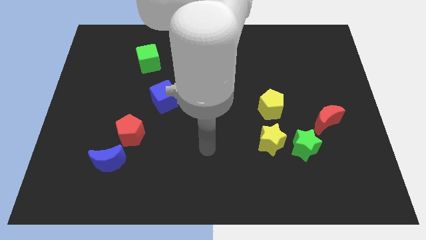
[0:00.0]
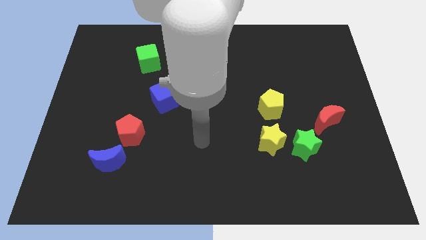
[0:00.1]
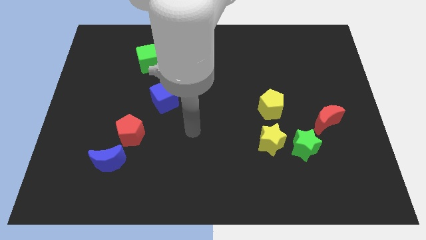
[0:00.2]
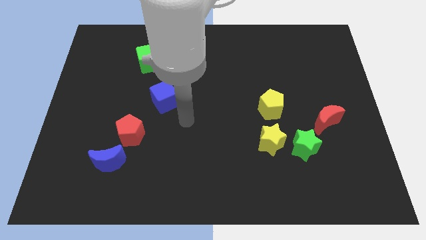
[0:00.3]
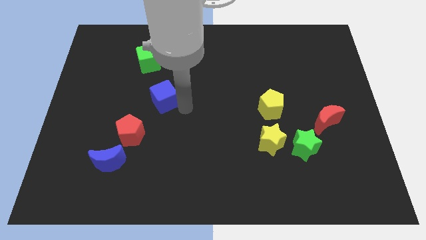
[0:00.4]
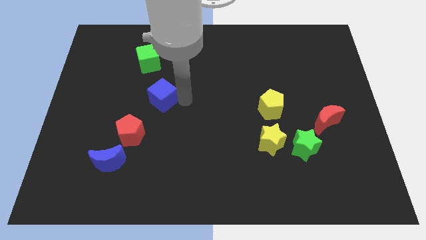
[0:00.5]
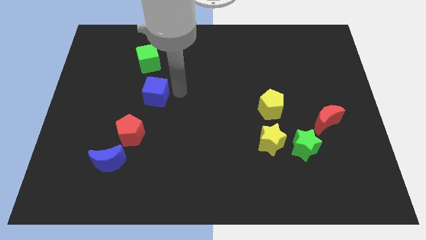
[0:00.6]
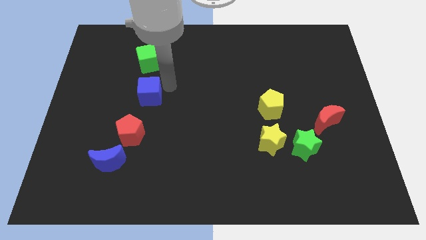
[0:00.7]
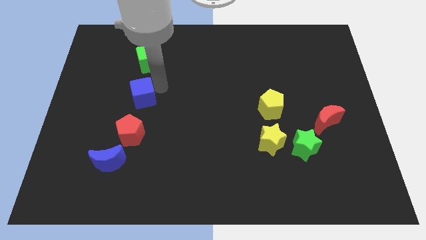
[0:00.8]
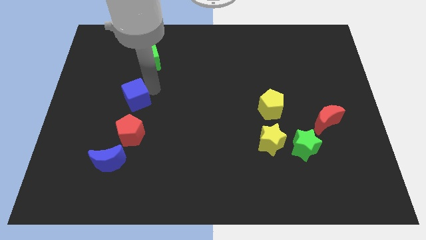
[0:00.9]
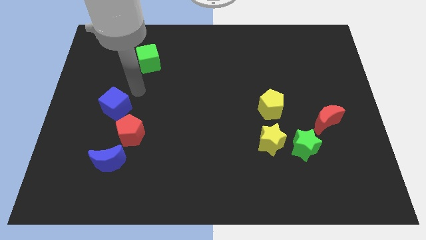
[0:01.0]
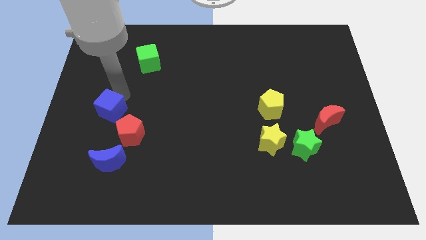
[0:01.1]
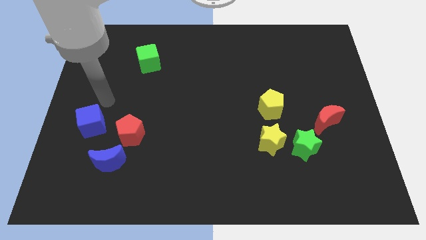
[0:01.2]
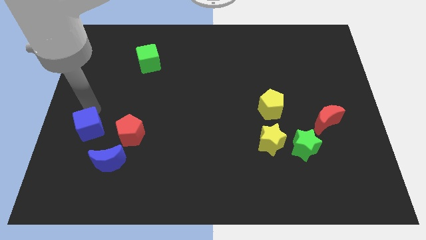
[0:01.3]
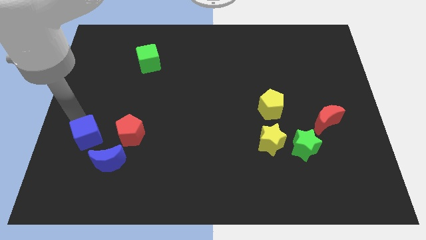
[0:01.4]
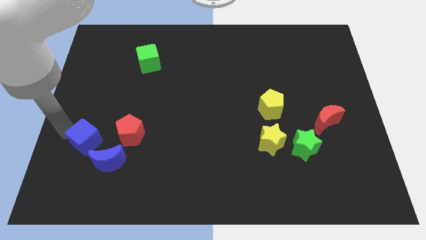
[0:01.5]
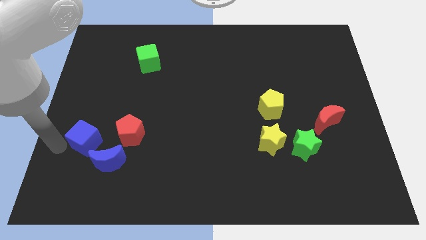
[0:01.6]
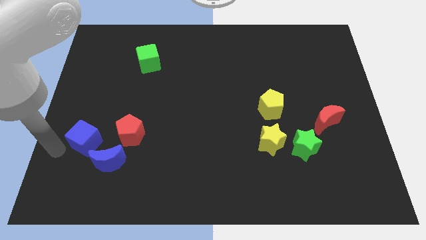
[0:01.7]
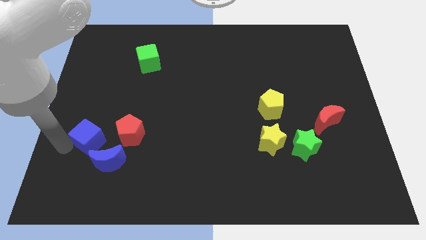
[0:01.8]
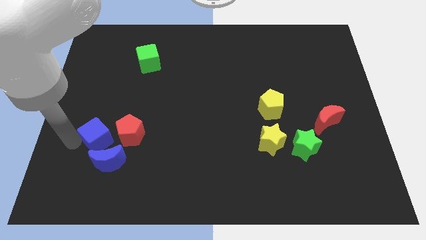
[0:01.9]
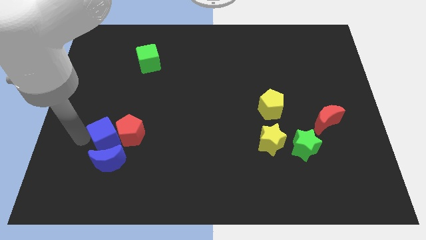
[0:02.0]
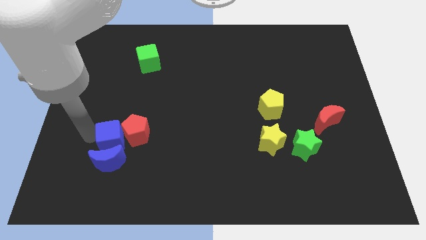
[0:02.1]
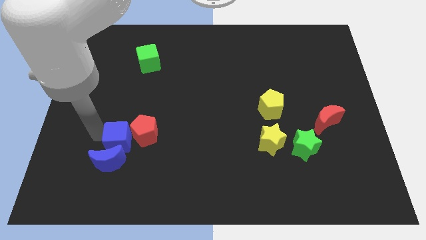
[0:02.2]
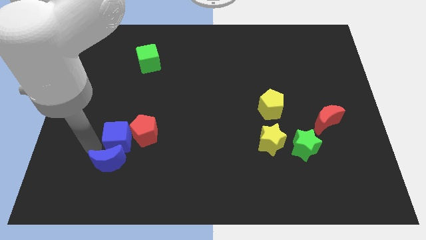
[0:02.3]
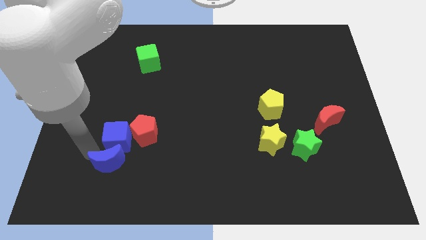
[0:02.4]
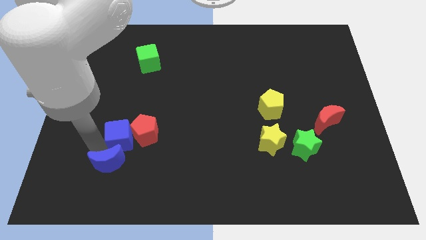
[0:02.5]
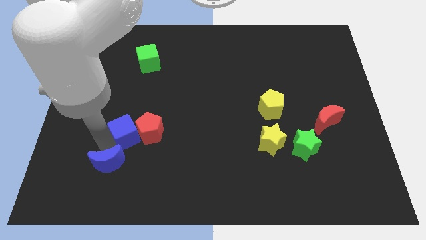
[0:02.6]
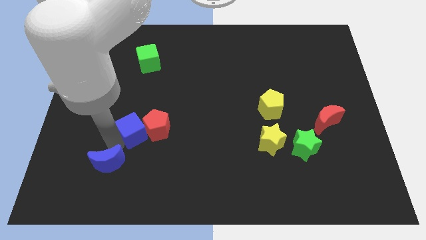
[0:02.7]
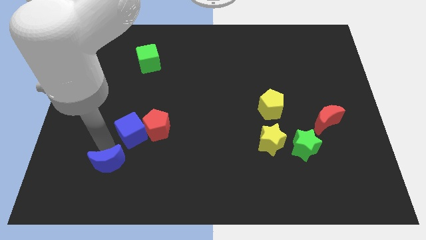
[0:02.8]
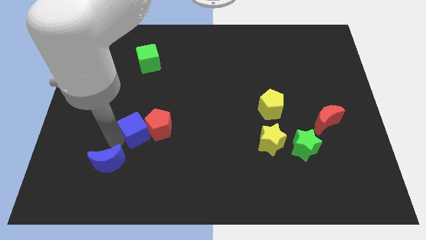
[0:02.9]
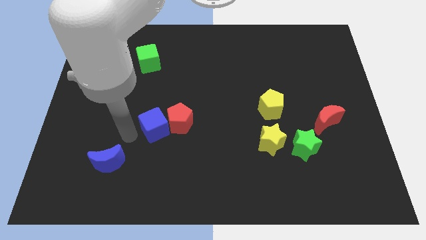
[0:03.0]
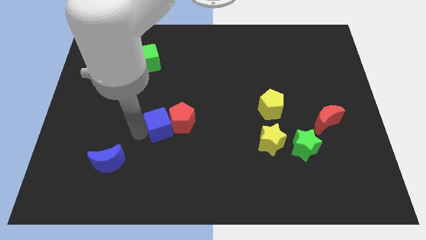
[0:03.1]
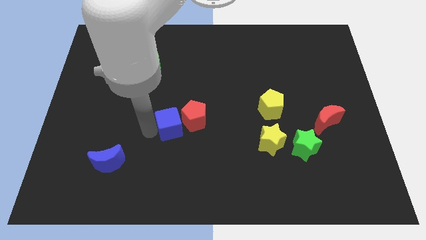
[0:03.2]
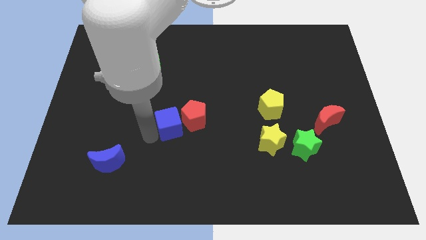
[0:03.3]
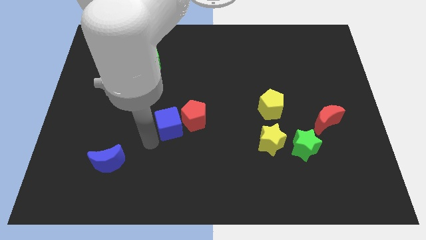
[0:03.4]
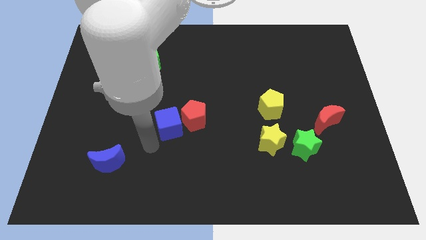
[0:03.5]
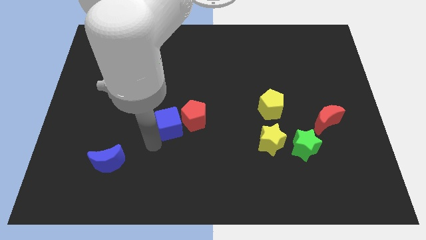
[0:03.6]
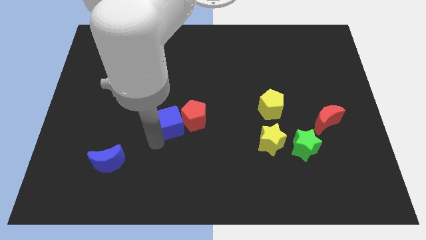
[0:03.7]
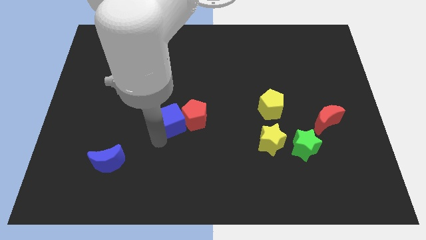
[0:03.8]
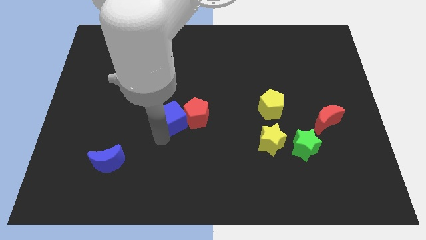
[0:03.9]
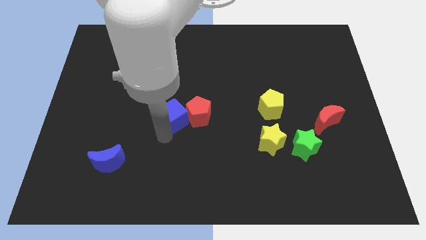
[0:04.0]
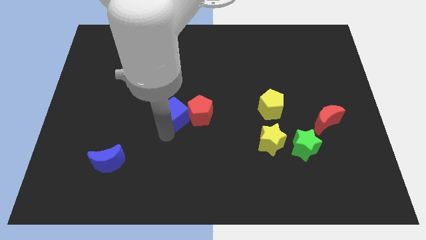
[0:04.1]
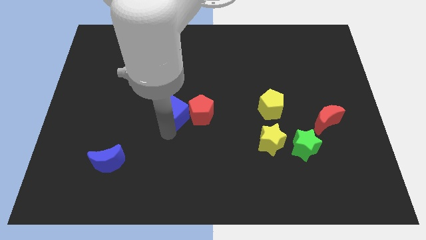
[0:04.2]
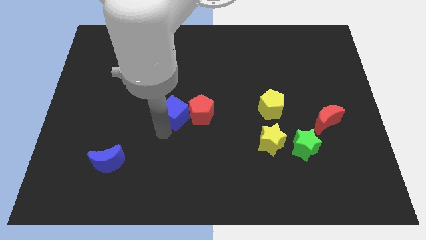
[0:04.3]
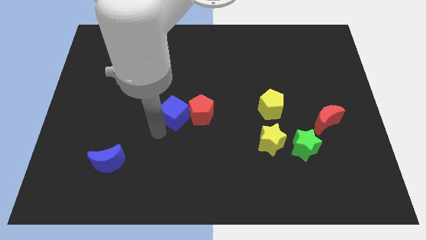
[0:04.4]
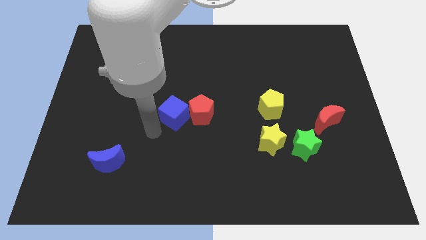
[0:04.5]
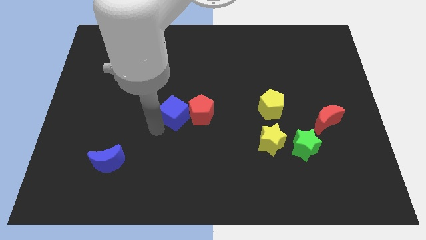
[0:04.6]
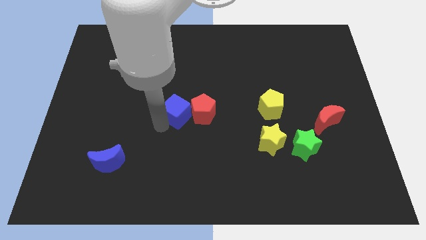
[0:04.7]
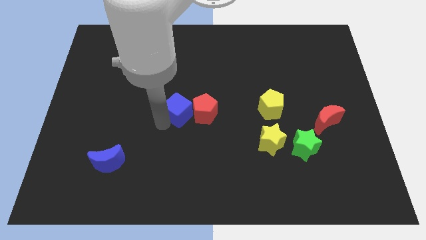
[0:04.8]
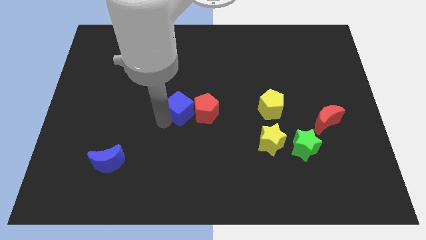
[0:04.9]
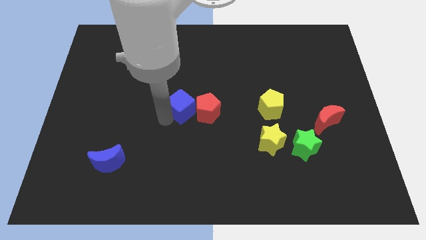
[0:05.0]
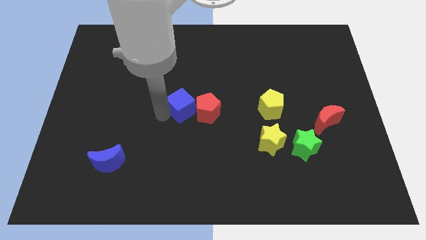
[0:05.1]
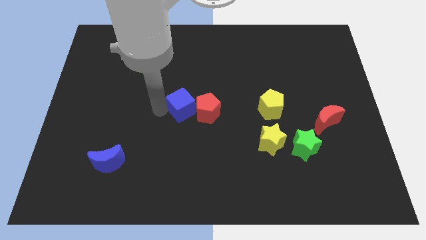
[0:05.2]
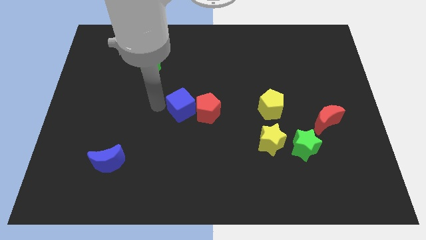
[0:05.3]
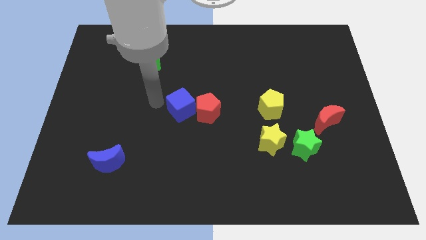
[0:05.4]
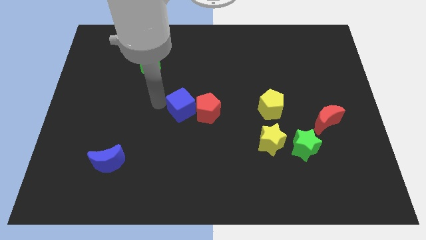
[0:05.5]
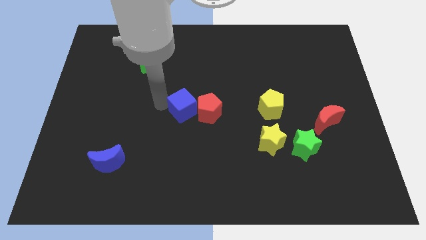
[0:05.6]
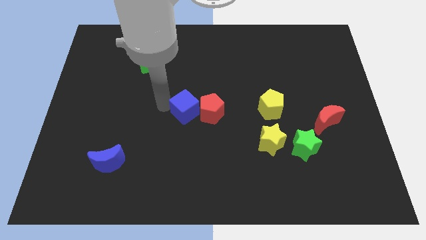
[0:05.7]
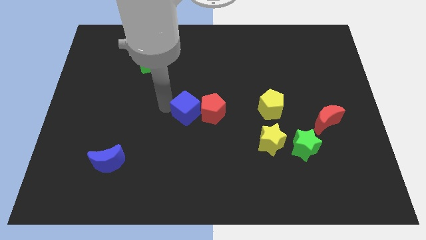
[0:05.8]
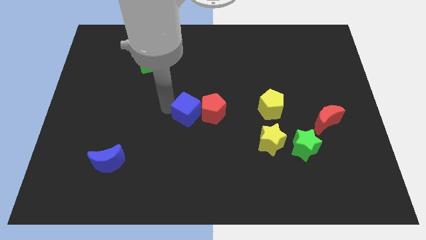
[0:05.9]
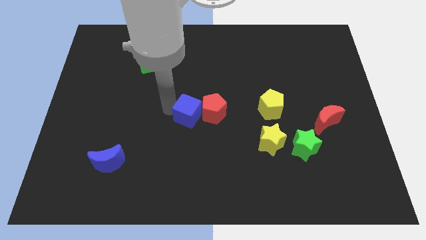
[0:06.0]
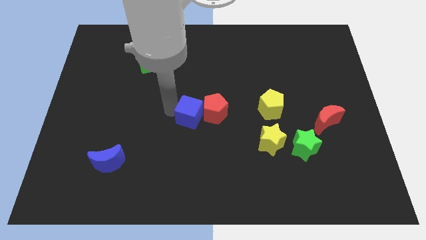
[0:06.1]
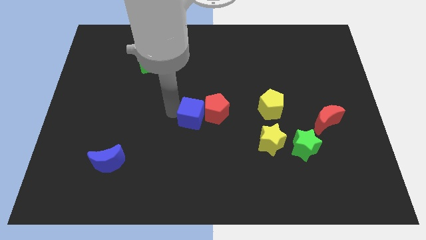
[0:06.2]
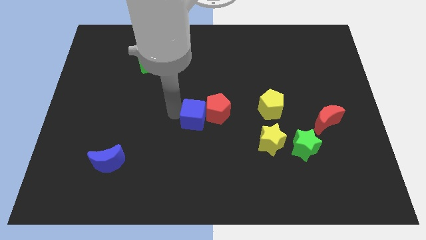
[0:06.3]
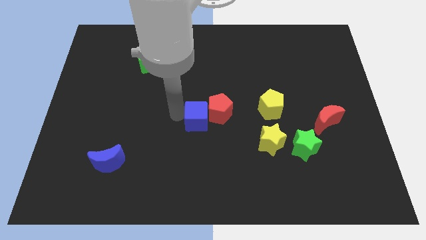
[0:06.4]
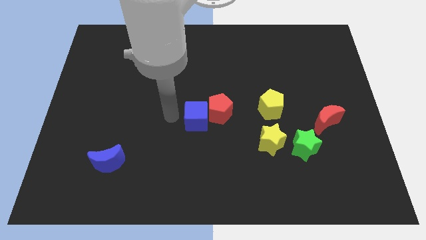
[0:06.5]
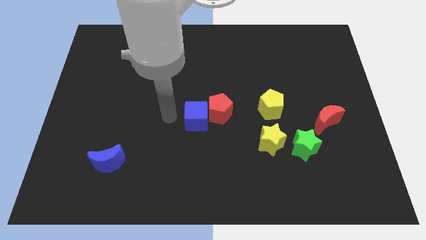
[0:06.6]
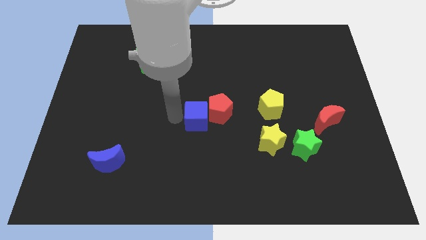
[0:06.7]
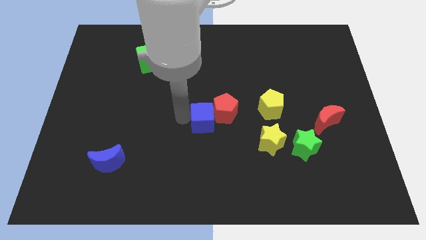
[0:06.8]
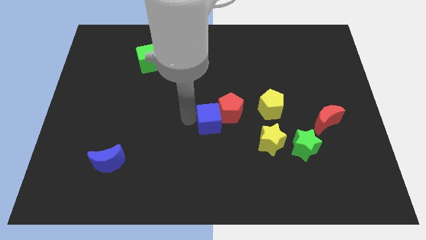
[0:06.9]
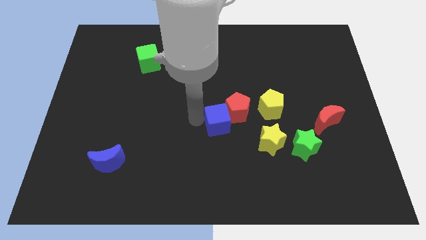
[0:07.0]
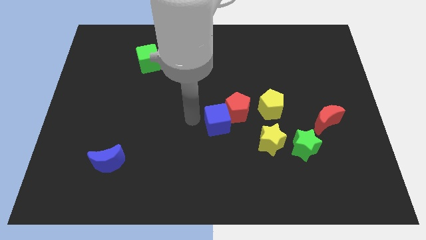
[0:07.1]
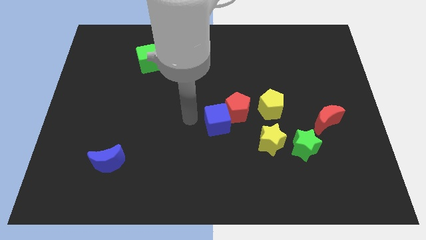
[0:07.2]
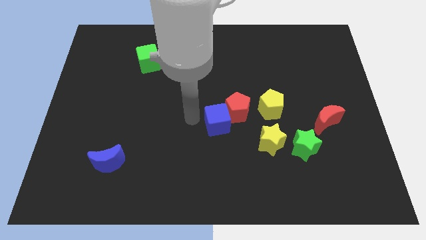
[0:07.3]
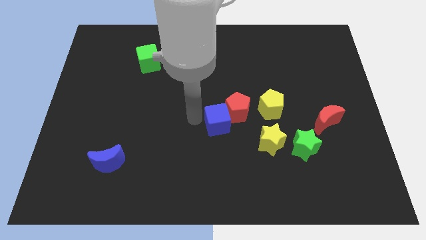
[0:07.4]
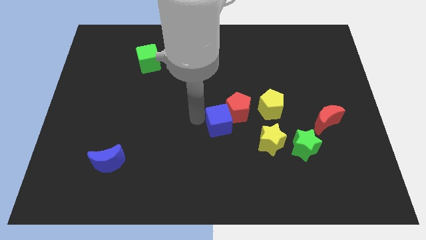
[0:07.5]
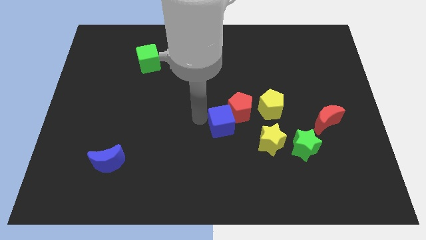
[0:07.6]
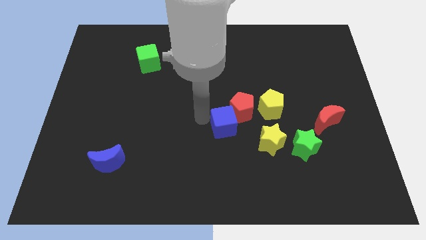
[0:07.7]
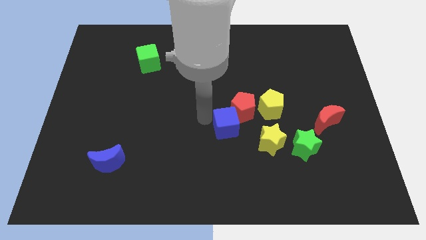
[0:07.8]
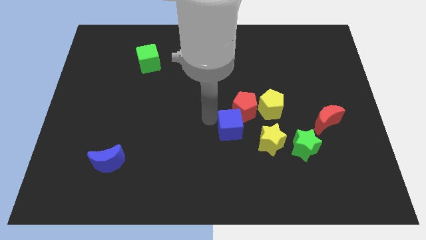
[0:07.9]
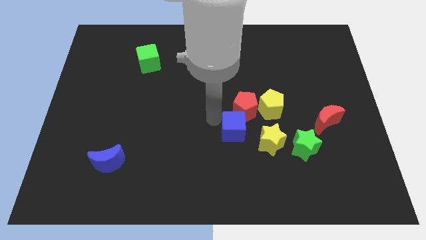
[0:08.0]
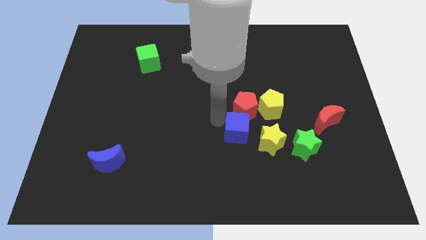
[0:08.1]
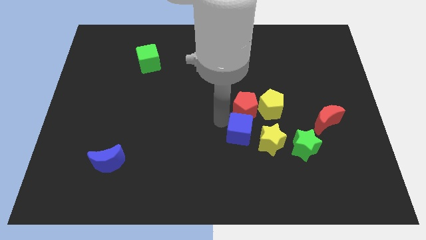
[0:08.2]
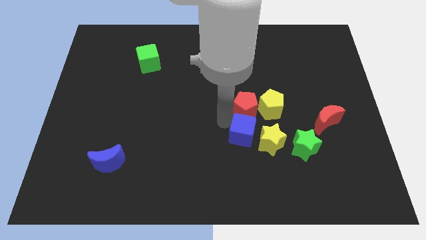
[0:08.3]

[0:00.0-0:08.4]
put the blue cube towards the yellow star
